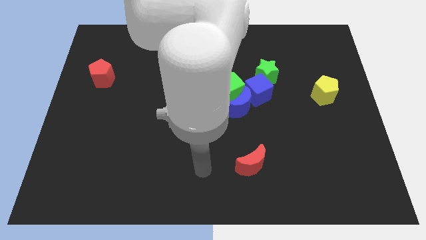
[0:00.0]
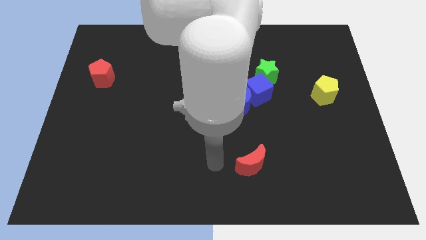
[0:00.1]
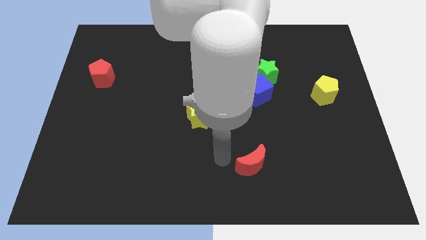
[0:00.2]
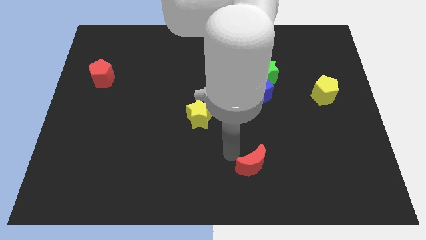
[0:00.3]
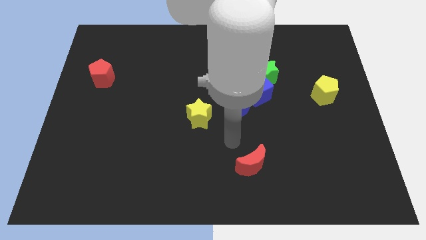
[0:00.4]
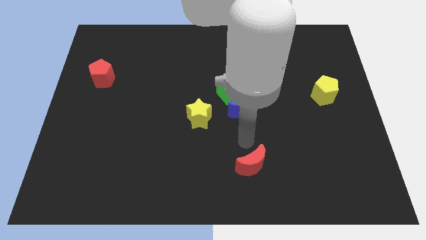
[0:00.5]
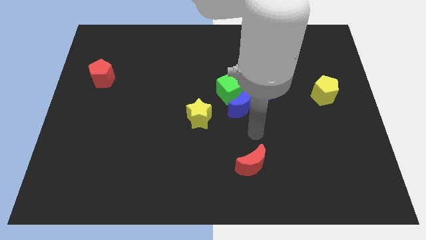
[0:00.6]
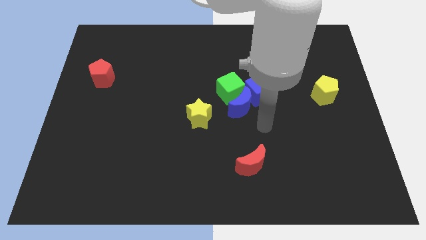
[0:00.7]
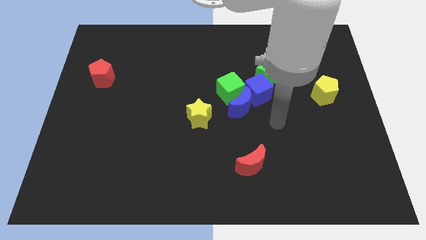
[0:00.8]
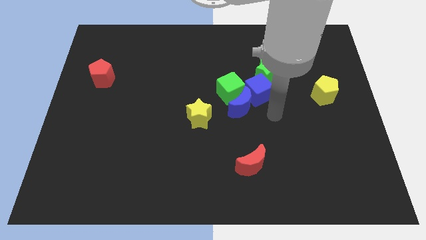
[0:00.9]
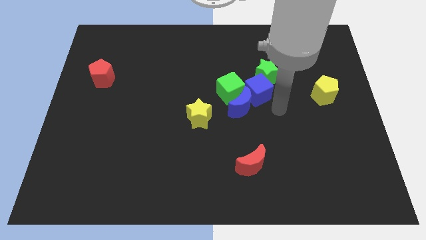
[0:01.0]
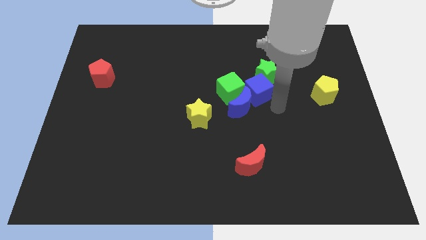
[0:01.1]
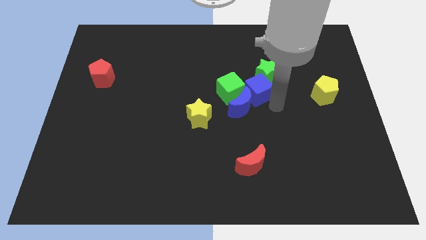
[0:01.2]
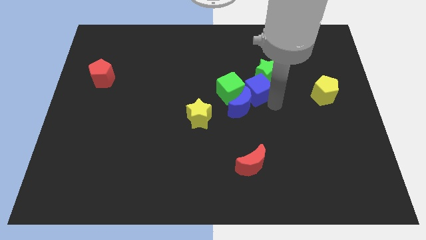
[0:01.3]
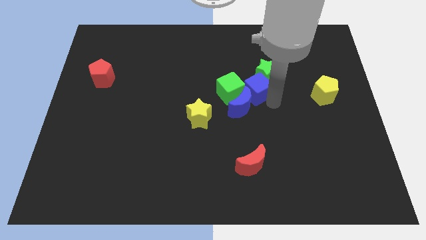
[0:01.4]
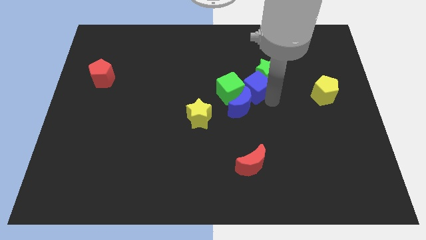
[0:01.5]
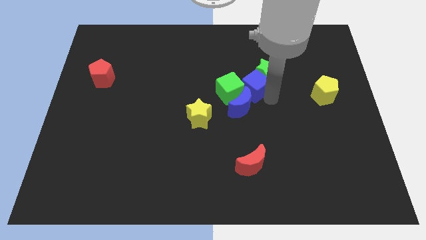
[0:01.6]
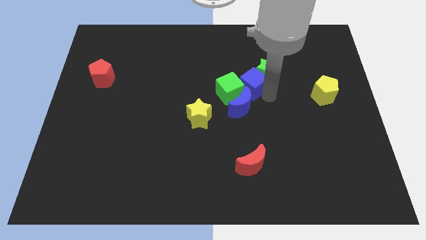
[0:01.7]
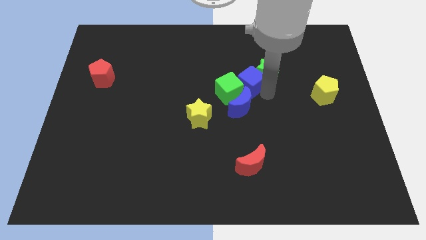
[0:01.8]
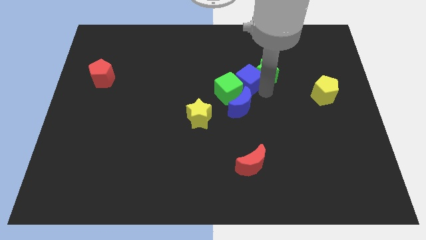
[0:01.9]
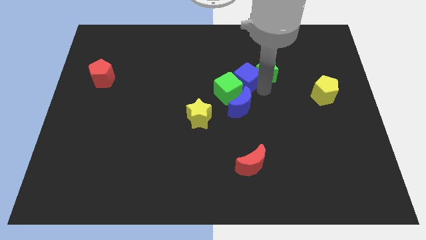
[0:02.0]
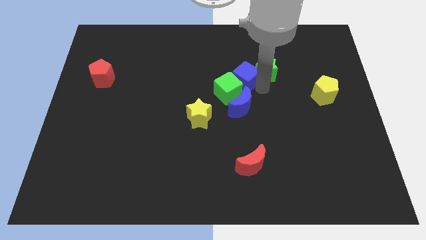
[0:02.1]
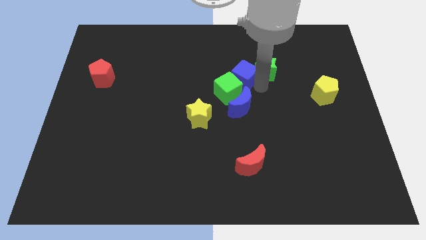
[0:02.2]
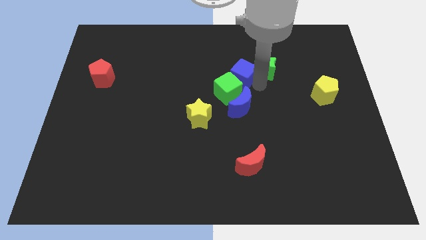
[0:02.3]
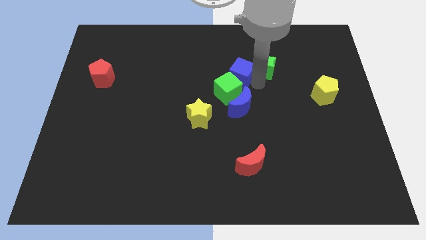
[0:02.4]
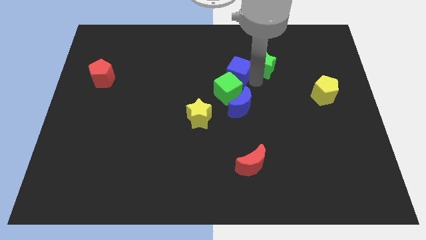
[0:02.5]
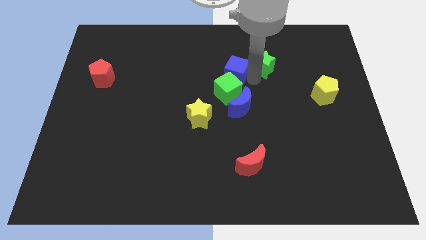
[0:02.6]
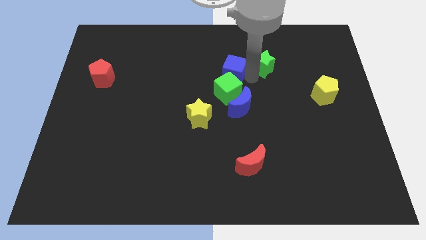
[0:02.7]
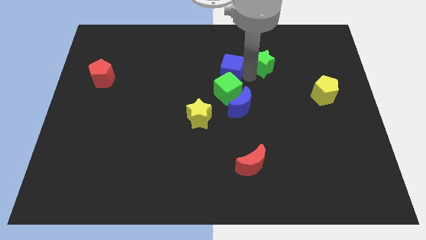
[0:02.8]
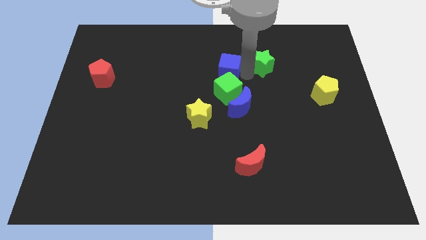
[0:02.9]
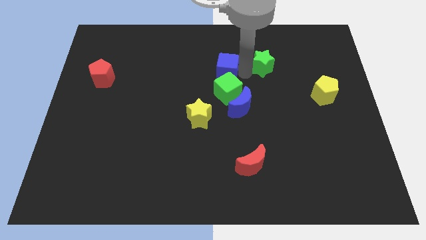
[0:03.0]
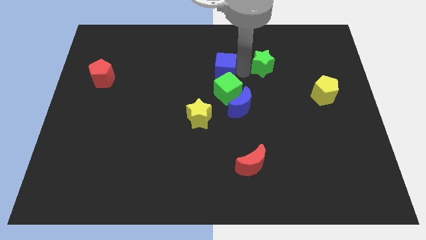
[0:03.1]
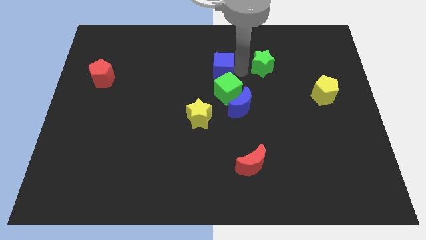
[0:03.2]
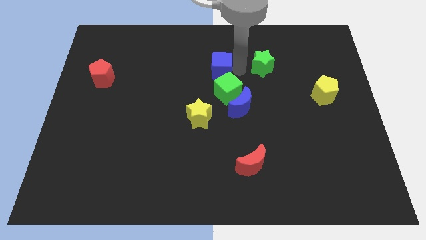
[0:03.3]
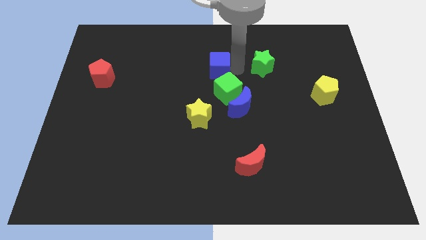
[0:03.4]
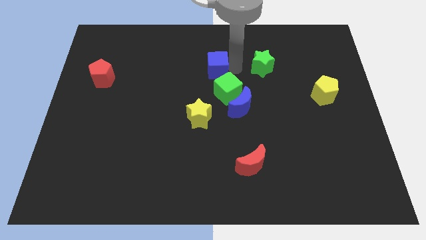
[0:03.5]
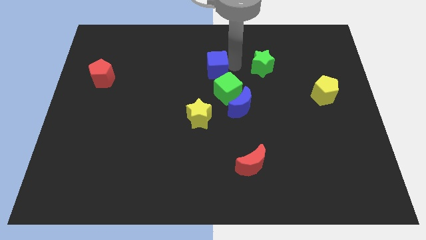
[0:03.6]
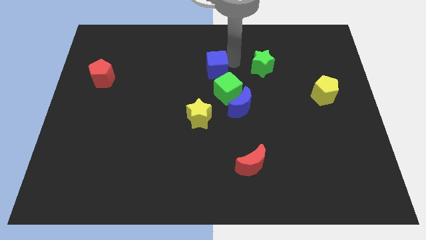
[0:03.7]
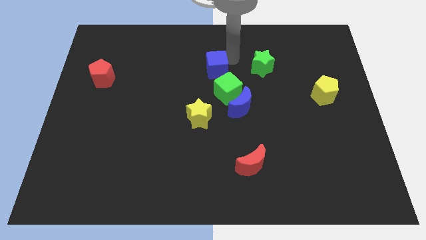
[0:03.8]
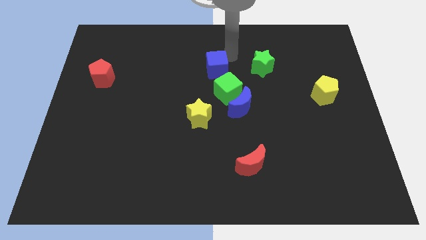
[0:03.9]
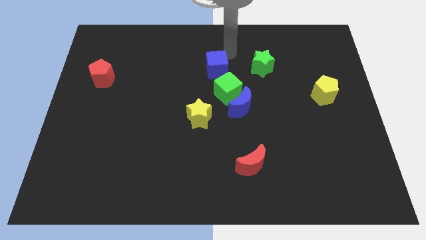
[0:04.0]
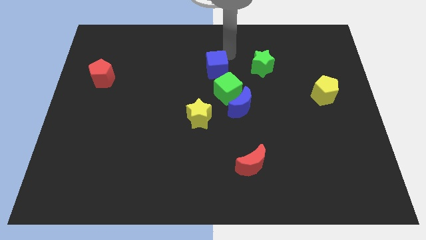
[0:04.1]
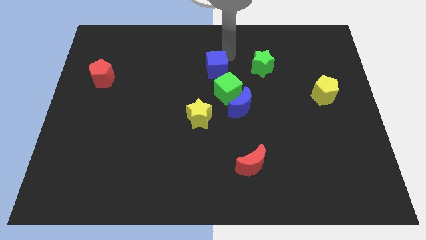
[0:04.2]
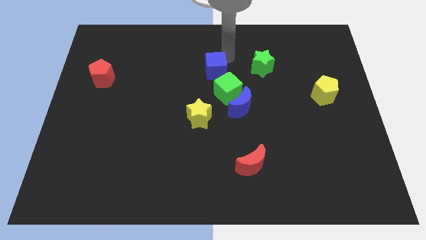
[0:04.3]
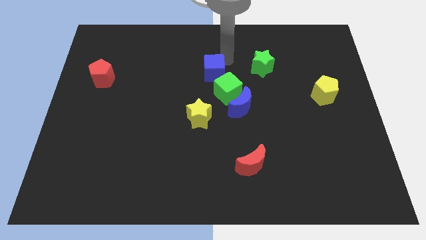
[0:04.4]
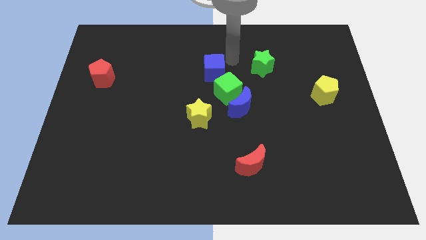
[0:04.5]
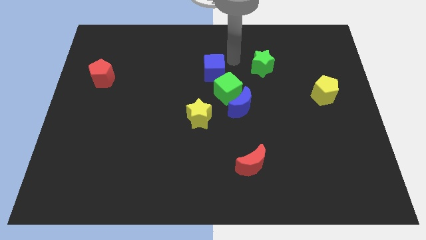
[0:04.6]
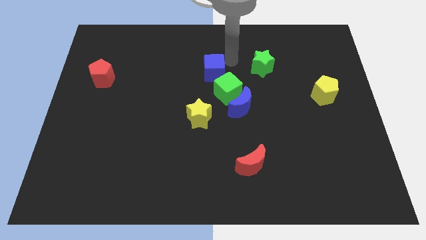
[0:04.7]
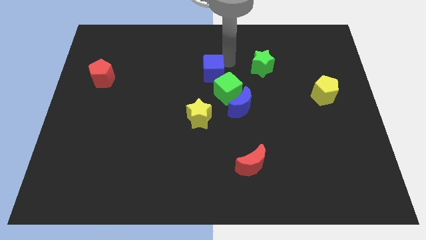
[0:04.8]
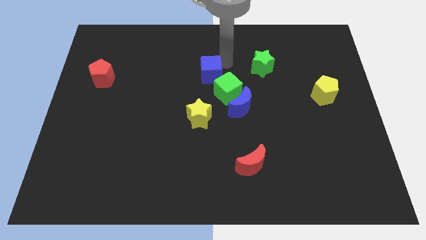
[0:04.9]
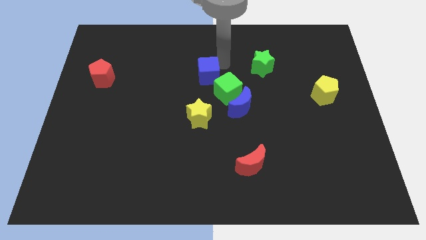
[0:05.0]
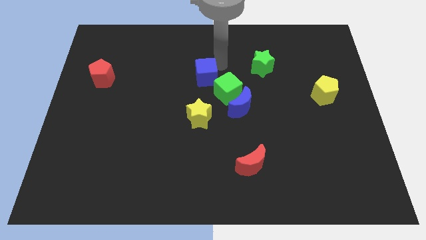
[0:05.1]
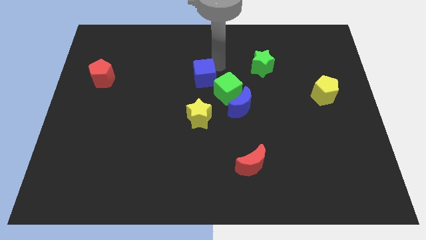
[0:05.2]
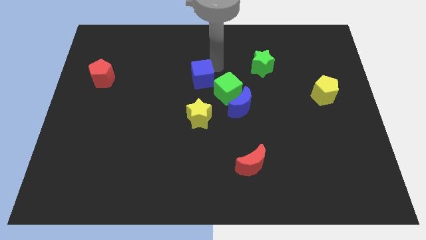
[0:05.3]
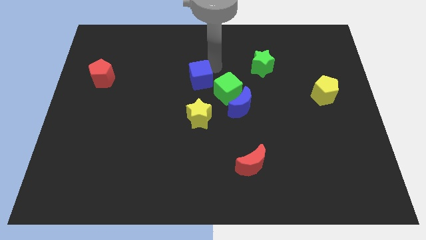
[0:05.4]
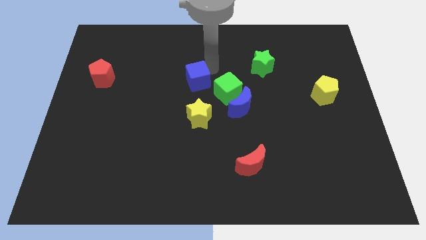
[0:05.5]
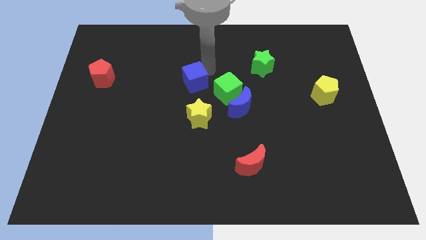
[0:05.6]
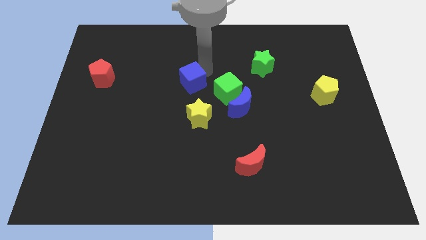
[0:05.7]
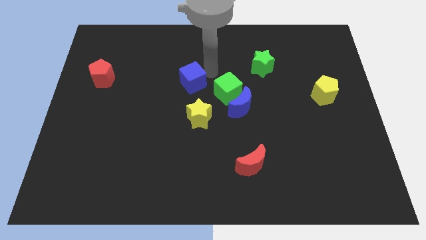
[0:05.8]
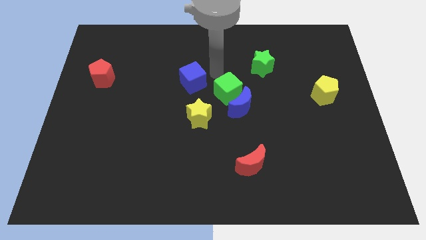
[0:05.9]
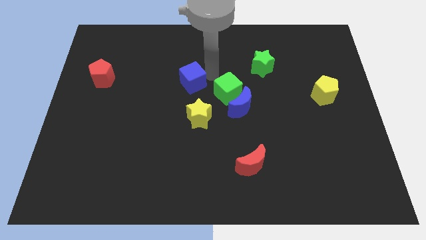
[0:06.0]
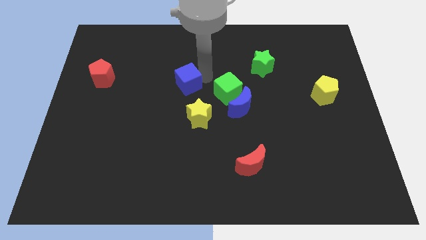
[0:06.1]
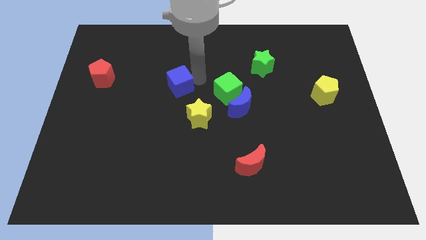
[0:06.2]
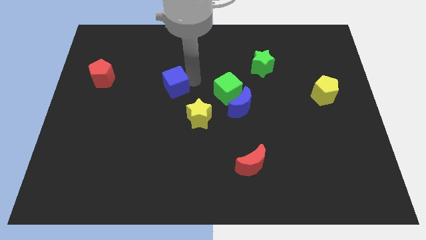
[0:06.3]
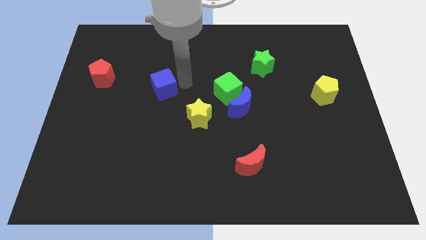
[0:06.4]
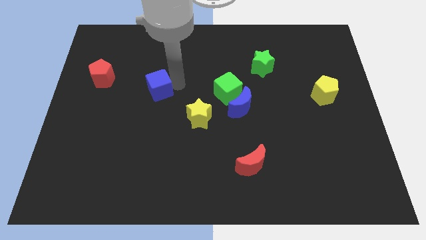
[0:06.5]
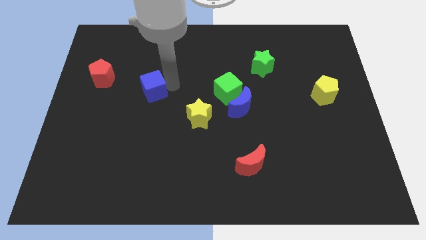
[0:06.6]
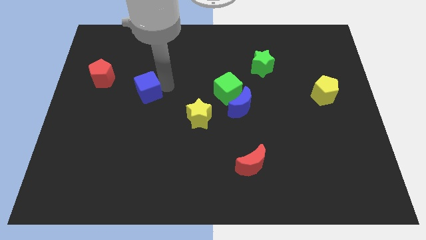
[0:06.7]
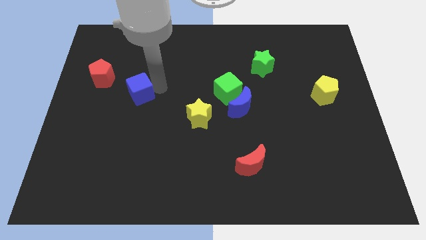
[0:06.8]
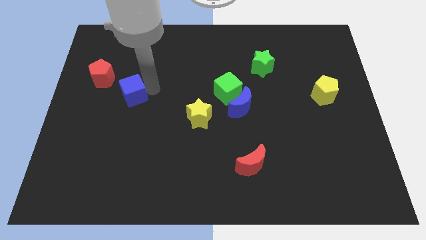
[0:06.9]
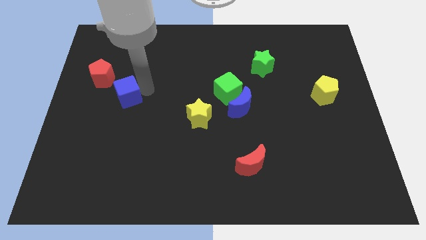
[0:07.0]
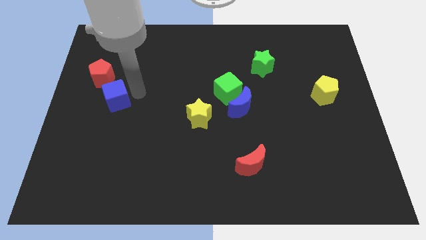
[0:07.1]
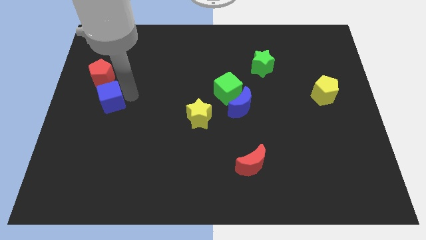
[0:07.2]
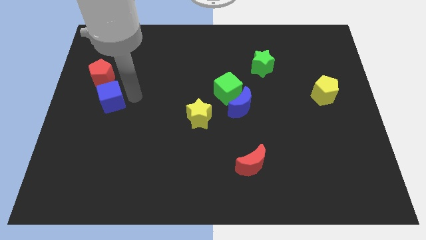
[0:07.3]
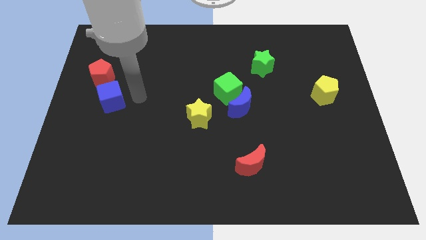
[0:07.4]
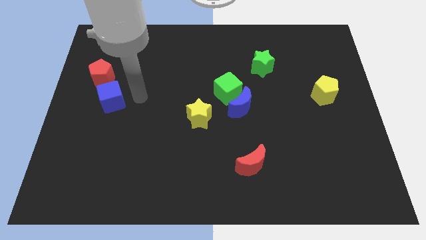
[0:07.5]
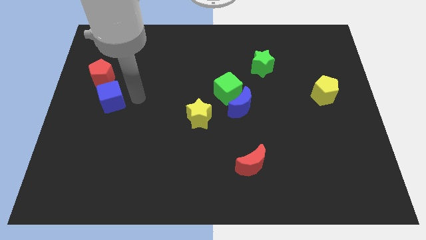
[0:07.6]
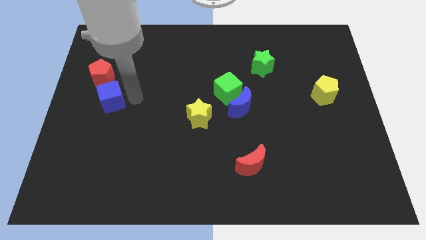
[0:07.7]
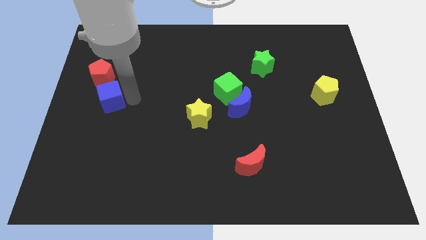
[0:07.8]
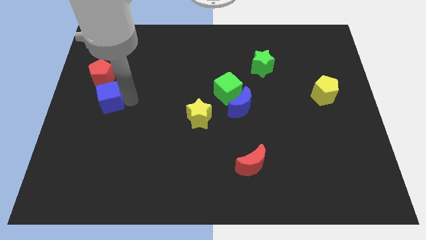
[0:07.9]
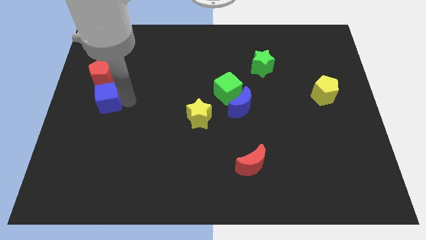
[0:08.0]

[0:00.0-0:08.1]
move the blue cube to the center left
